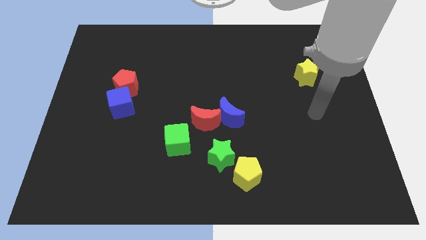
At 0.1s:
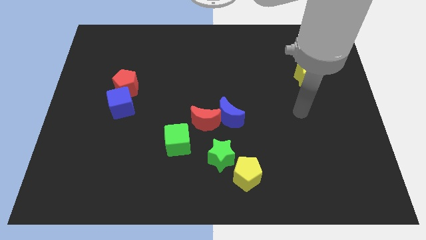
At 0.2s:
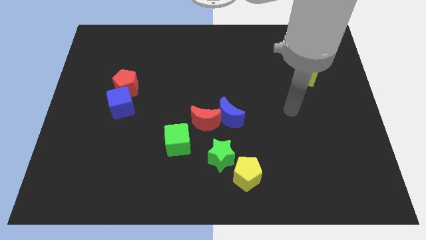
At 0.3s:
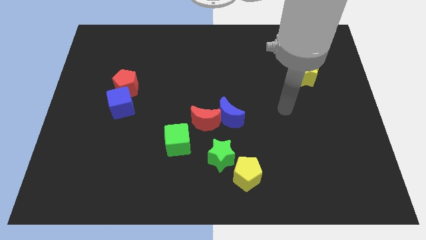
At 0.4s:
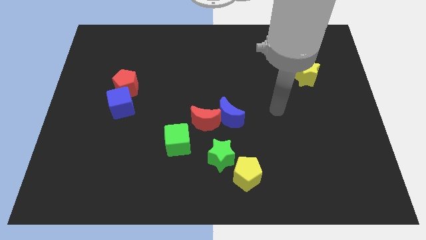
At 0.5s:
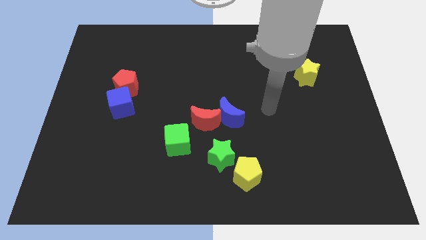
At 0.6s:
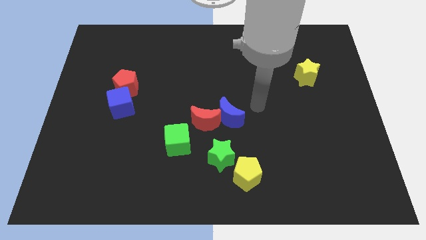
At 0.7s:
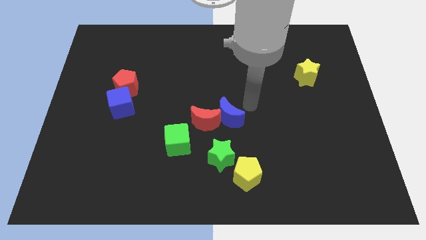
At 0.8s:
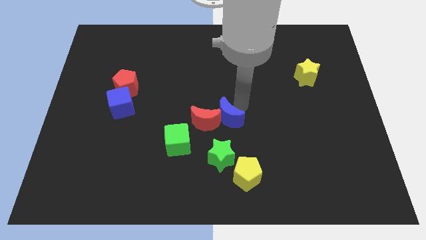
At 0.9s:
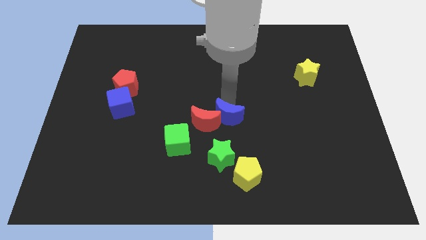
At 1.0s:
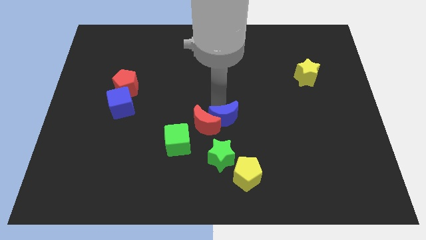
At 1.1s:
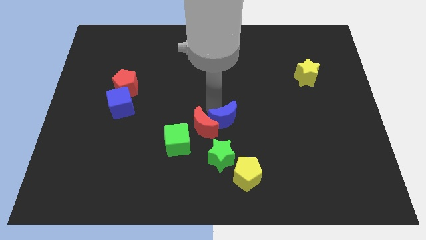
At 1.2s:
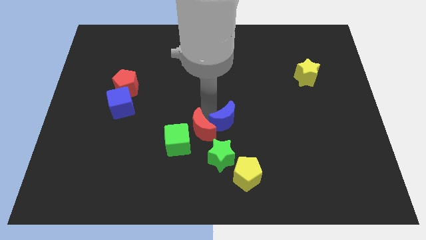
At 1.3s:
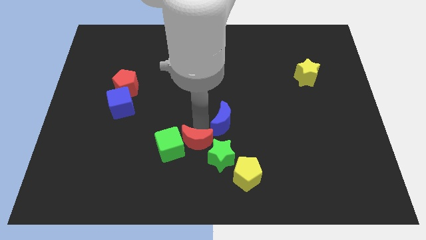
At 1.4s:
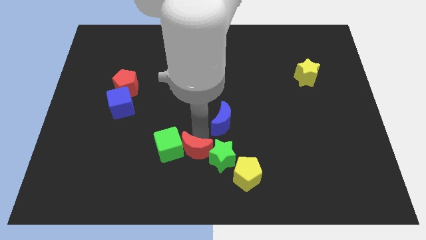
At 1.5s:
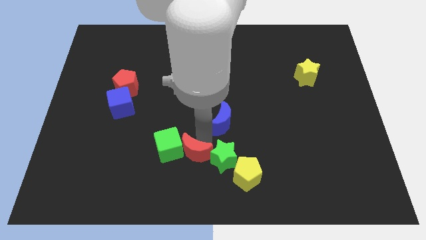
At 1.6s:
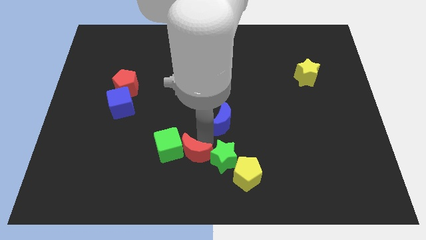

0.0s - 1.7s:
separate the blue moon from the red moon

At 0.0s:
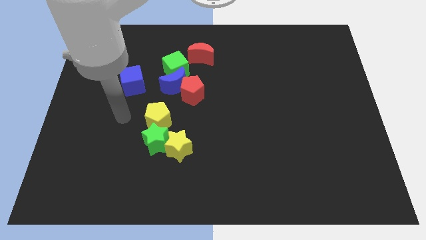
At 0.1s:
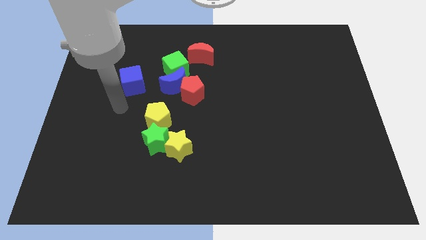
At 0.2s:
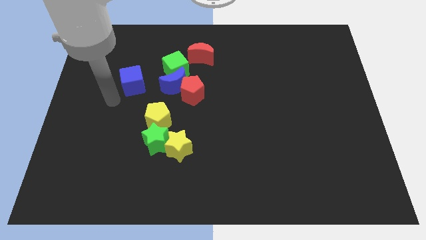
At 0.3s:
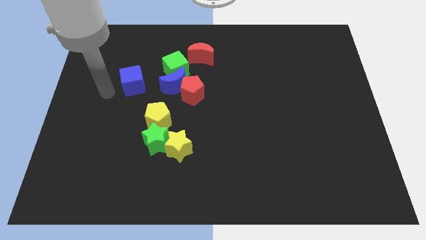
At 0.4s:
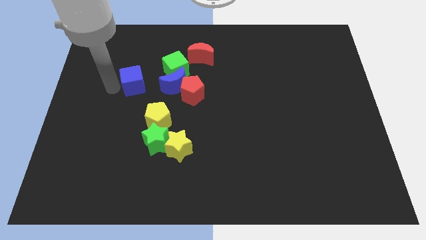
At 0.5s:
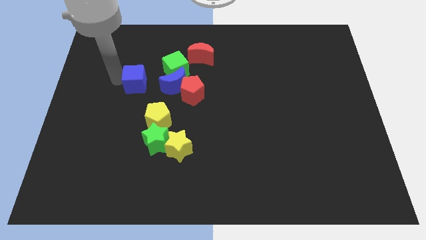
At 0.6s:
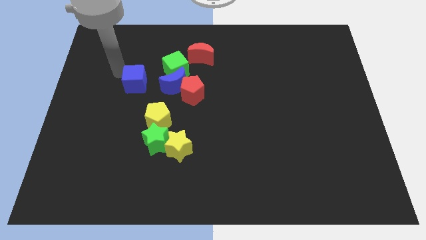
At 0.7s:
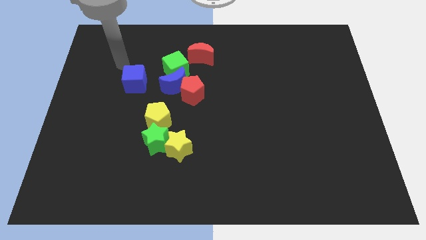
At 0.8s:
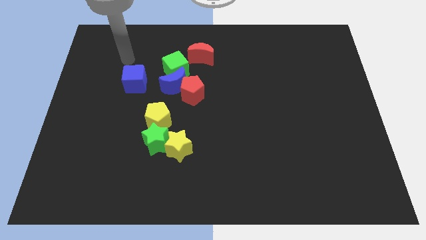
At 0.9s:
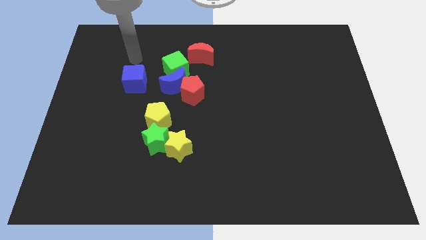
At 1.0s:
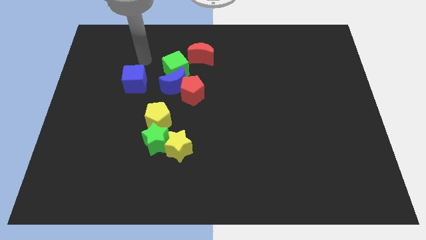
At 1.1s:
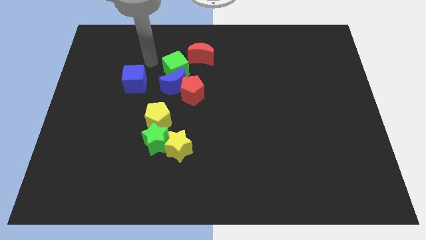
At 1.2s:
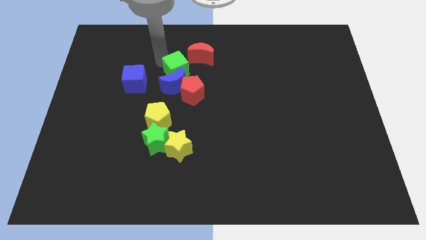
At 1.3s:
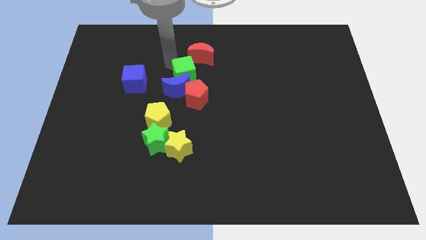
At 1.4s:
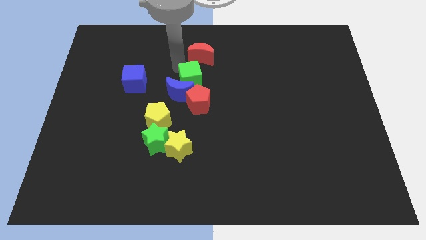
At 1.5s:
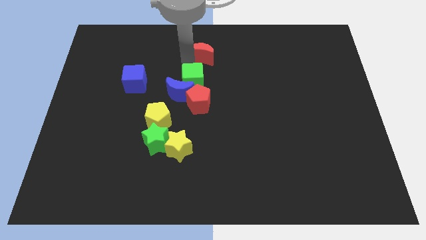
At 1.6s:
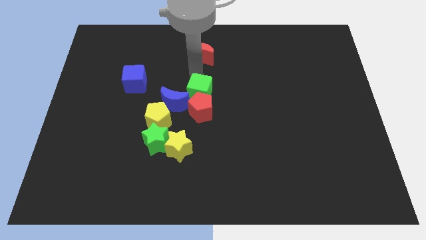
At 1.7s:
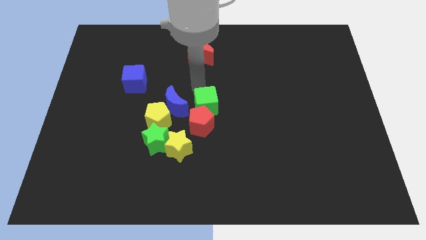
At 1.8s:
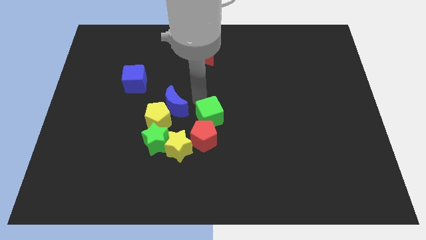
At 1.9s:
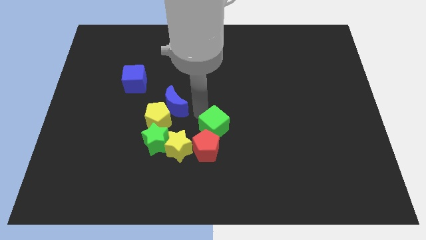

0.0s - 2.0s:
move the blue moon away from the red pentagon and green cube

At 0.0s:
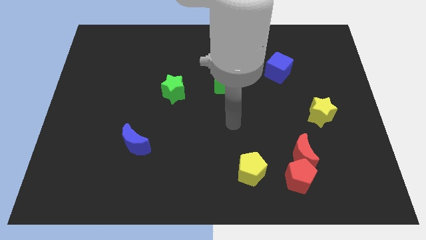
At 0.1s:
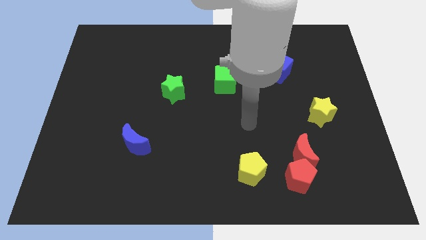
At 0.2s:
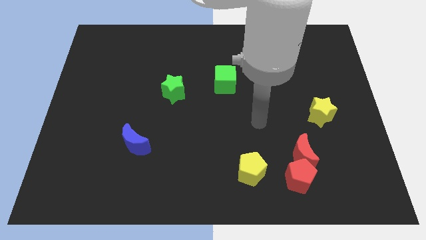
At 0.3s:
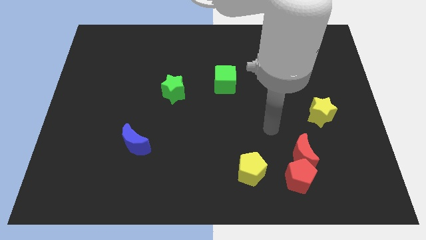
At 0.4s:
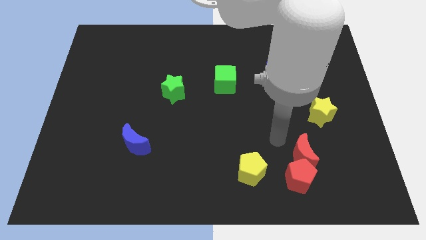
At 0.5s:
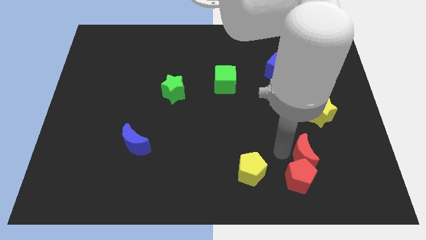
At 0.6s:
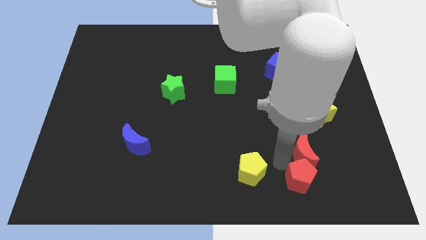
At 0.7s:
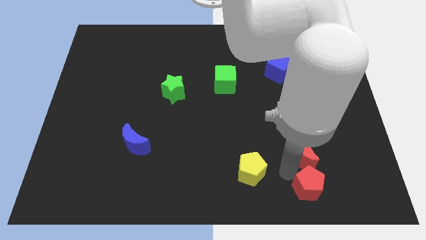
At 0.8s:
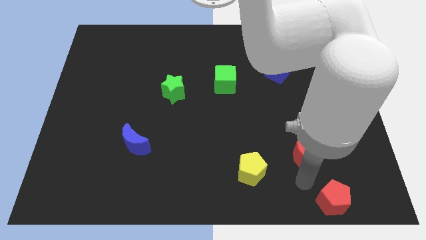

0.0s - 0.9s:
separate the red moon from the red pentagon

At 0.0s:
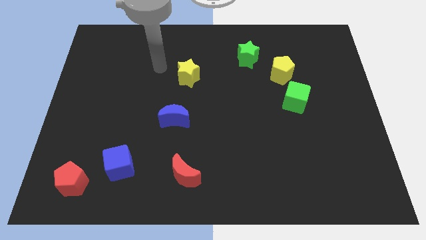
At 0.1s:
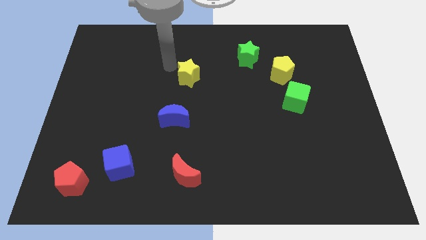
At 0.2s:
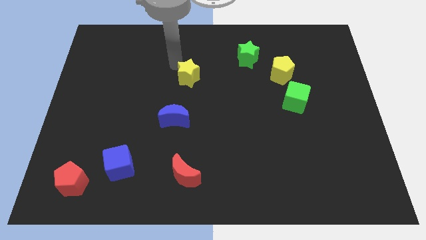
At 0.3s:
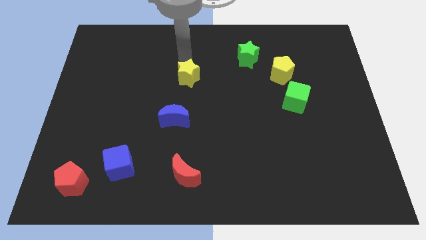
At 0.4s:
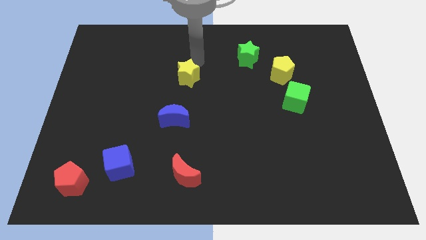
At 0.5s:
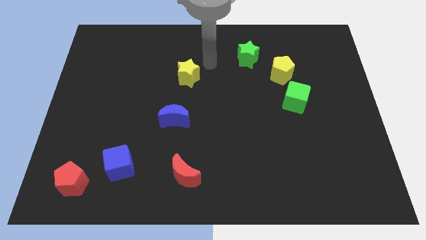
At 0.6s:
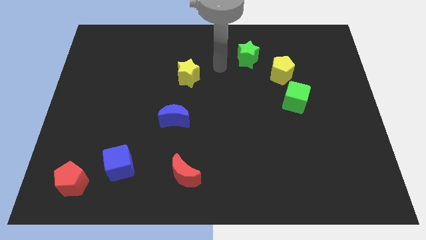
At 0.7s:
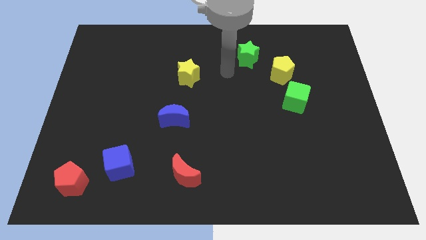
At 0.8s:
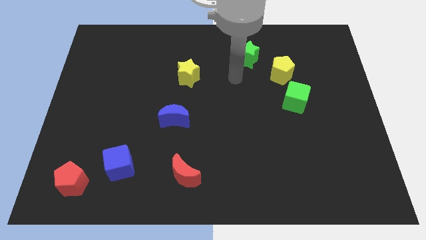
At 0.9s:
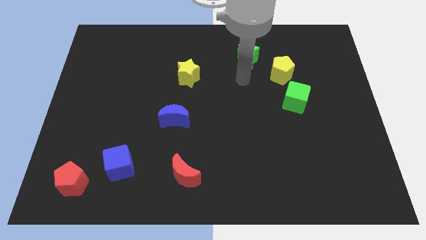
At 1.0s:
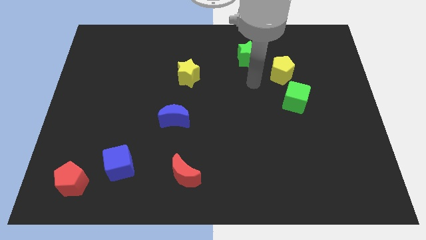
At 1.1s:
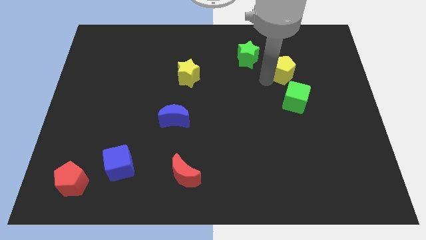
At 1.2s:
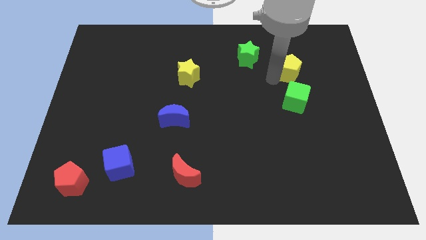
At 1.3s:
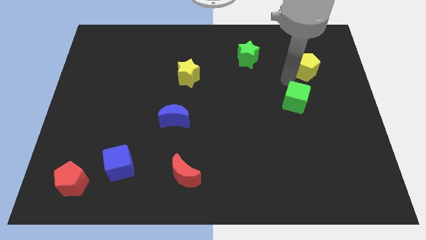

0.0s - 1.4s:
move the green cube away from the yellow pentagon

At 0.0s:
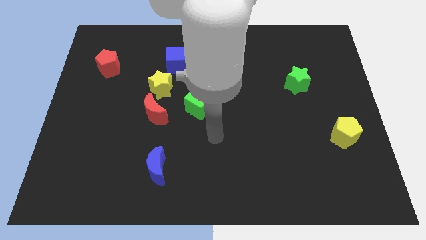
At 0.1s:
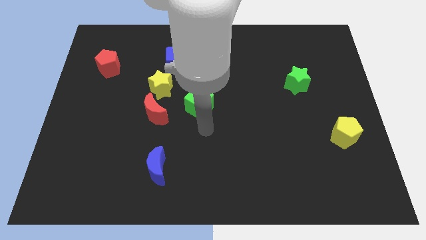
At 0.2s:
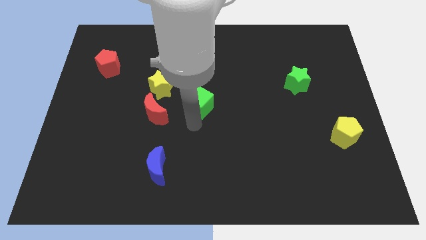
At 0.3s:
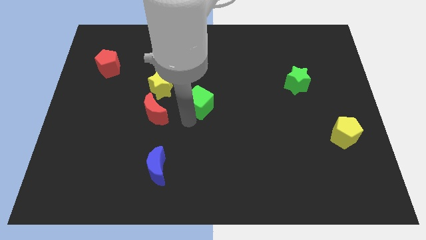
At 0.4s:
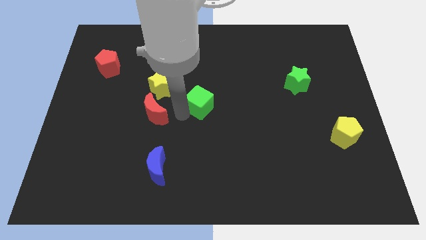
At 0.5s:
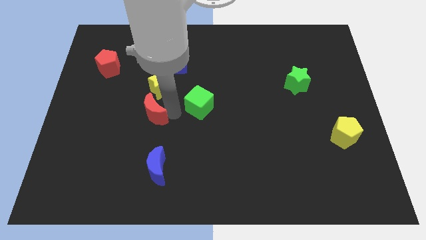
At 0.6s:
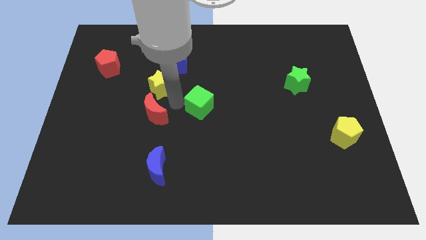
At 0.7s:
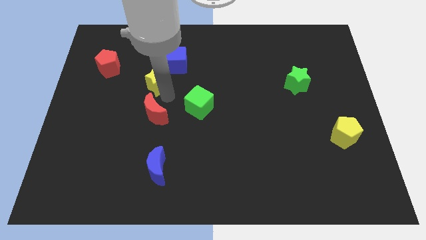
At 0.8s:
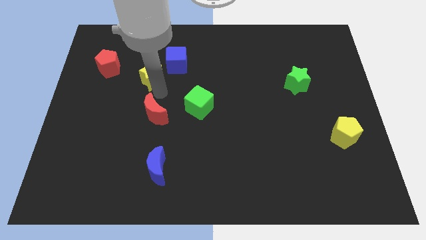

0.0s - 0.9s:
move the red moon away from the yellow star

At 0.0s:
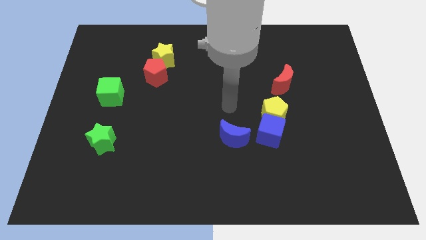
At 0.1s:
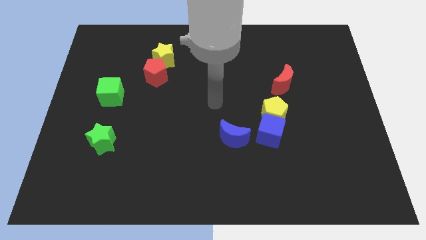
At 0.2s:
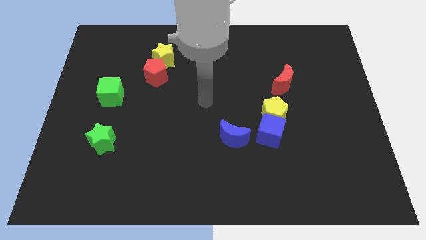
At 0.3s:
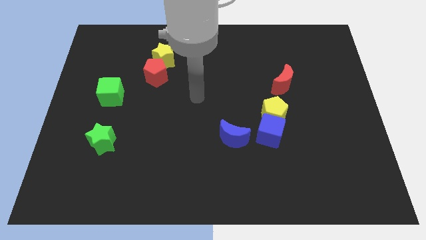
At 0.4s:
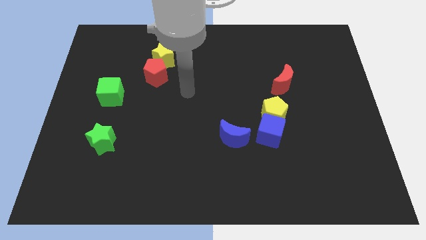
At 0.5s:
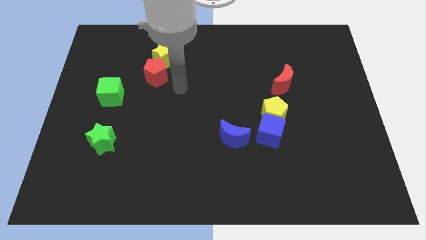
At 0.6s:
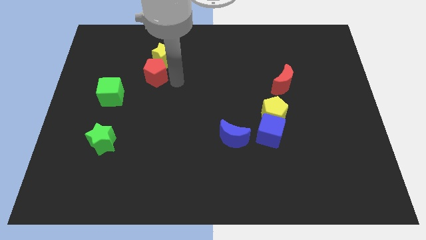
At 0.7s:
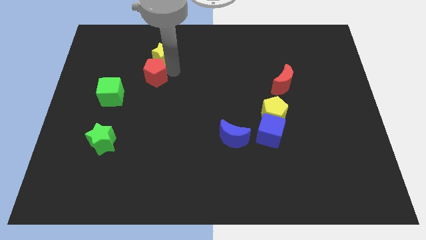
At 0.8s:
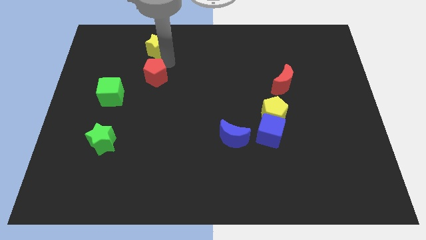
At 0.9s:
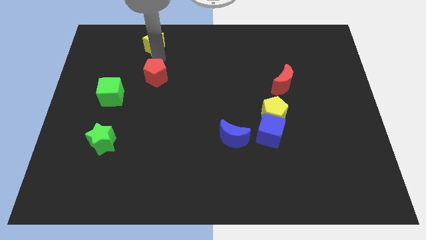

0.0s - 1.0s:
move the red pentagon away from the yellow star

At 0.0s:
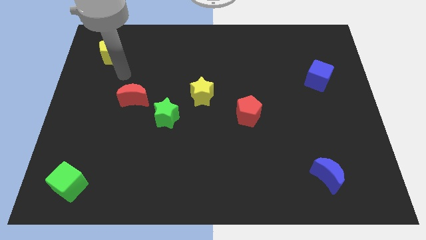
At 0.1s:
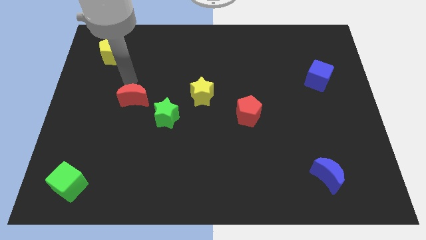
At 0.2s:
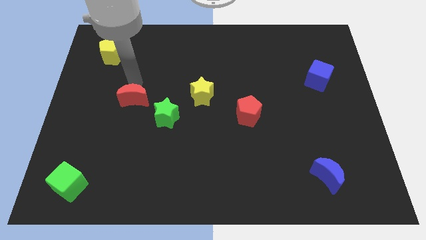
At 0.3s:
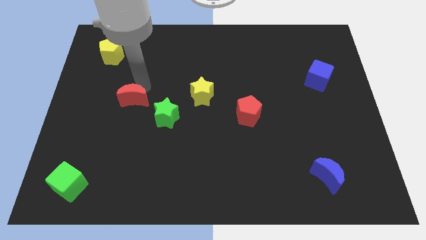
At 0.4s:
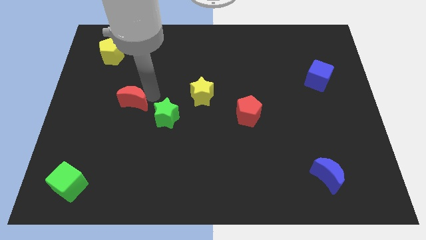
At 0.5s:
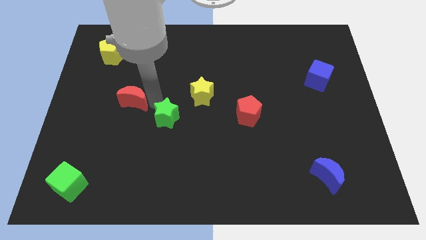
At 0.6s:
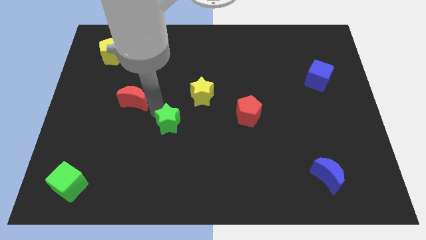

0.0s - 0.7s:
move the red moon away from the green star

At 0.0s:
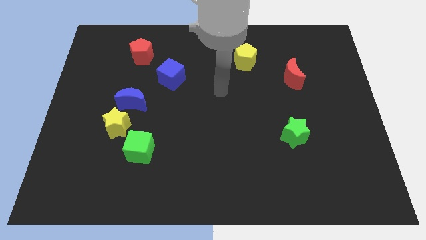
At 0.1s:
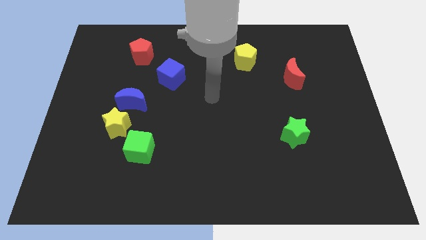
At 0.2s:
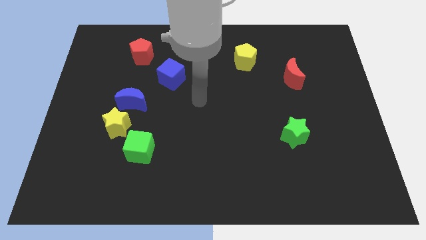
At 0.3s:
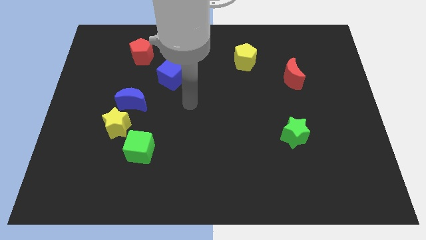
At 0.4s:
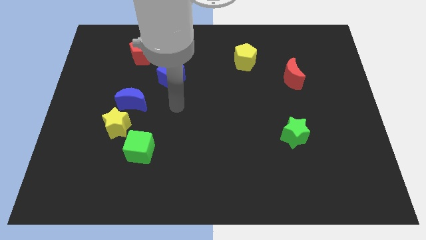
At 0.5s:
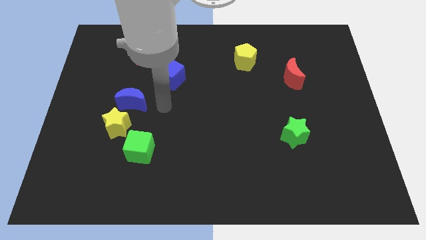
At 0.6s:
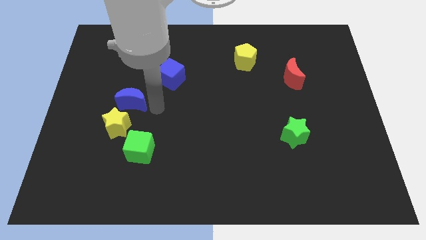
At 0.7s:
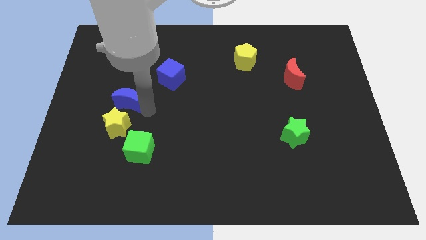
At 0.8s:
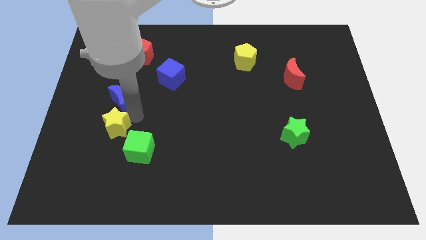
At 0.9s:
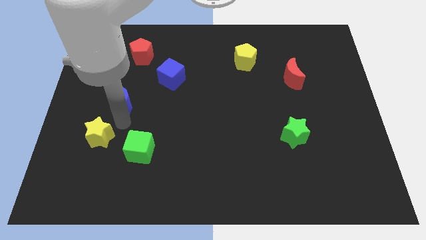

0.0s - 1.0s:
pull the blue moon apart from the yellow star
